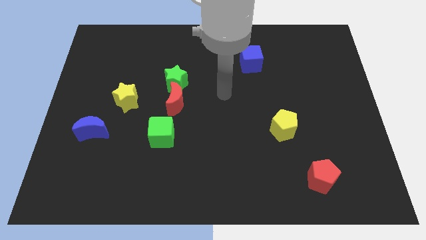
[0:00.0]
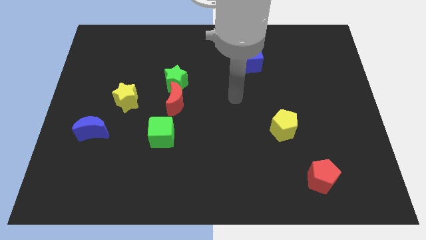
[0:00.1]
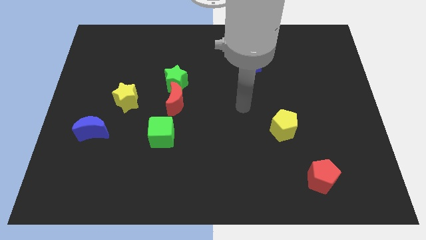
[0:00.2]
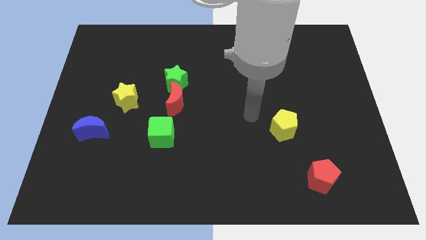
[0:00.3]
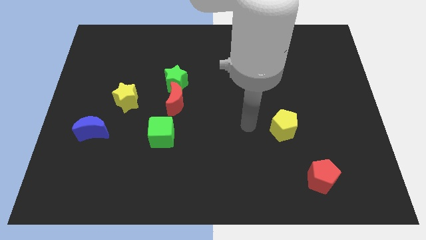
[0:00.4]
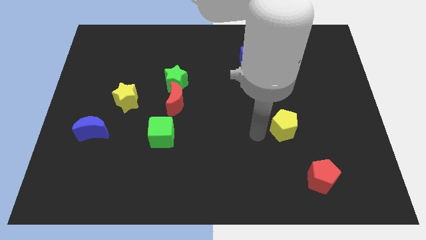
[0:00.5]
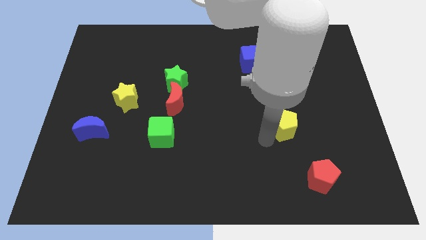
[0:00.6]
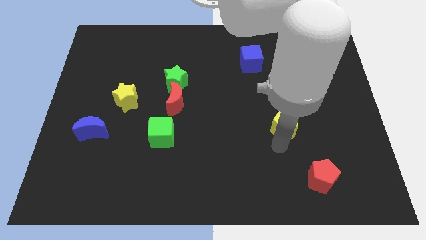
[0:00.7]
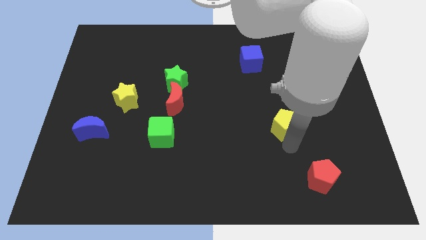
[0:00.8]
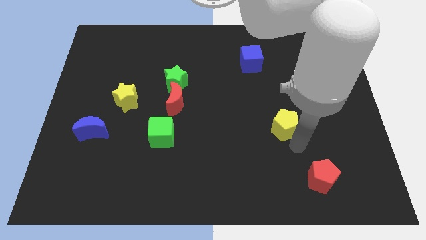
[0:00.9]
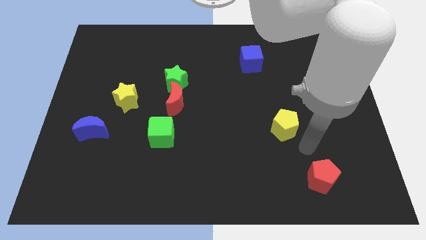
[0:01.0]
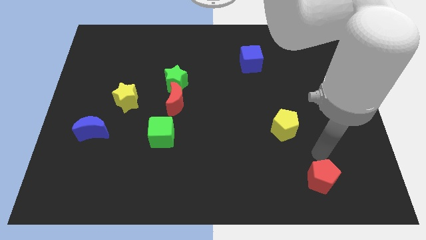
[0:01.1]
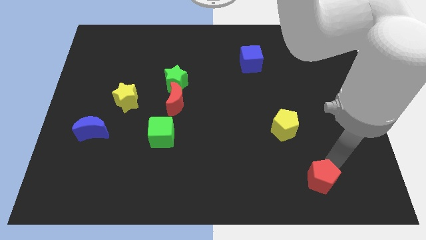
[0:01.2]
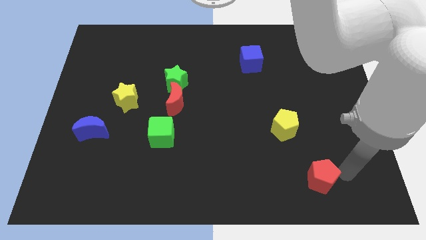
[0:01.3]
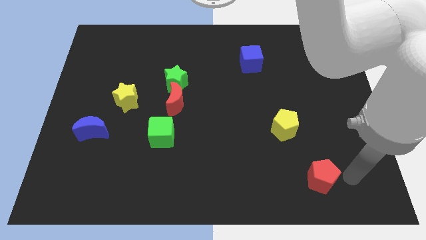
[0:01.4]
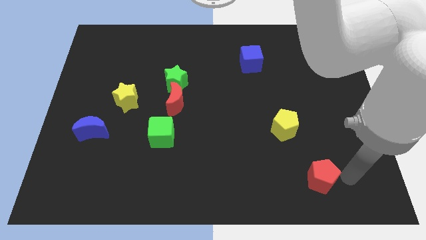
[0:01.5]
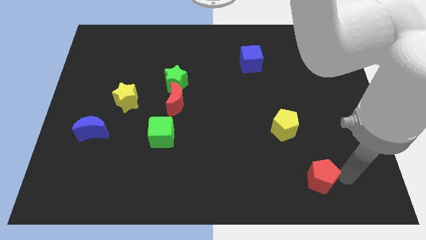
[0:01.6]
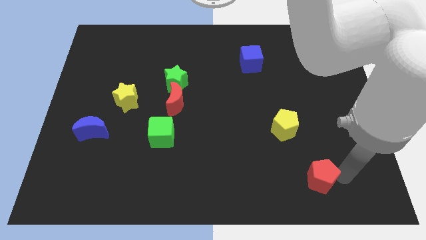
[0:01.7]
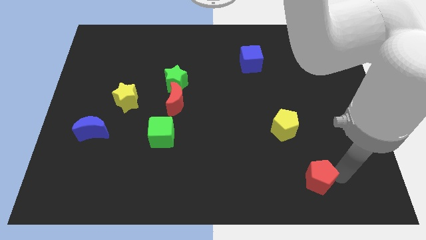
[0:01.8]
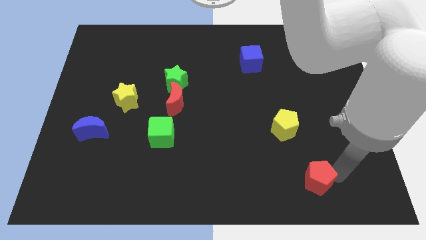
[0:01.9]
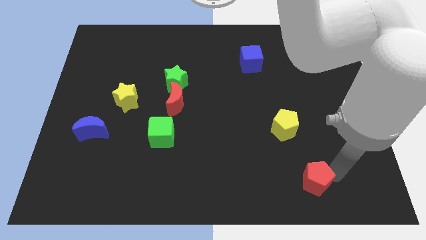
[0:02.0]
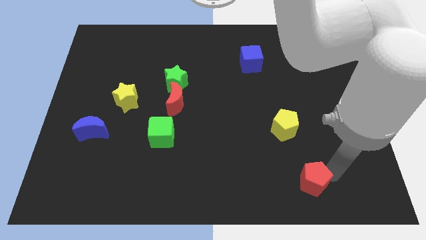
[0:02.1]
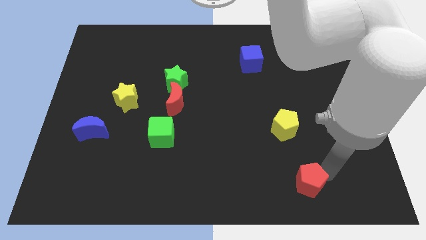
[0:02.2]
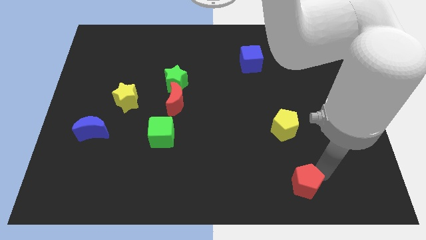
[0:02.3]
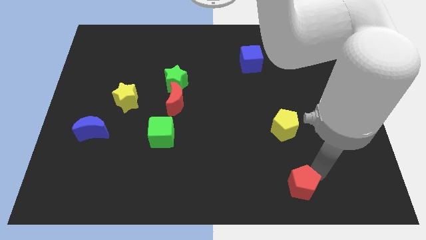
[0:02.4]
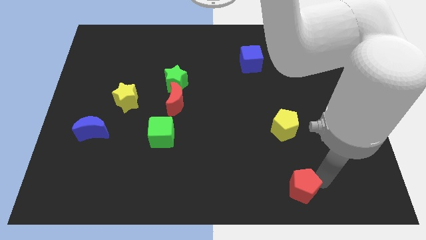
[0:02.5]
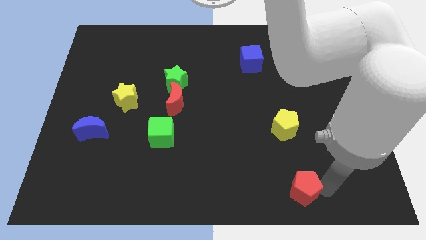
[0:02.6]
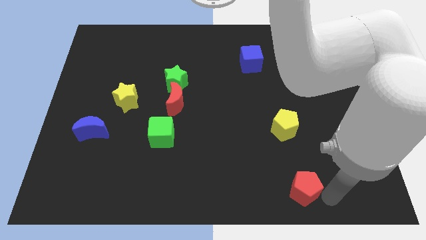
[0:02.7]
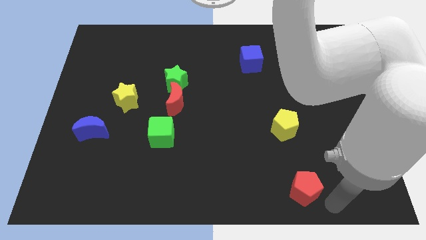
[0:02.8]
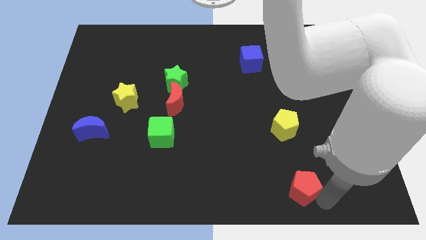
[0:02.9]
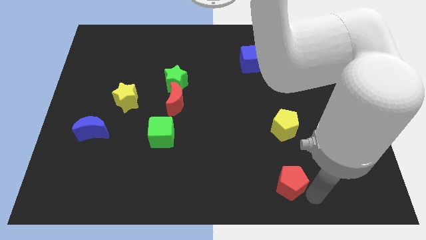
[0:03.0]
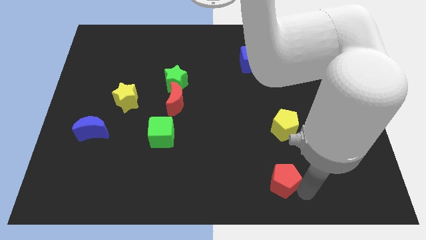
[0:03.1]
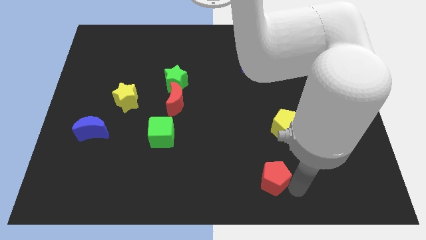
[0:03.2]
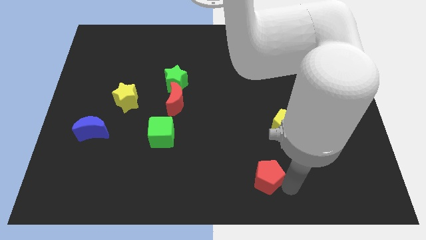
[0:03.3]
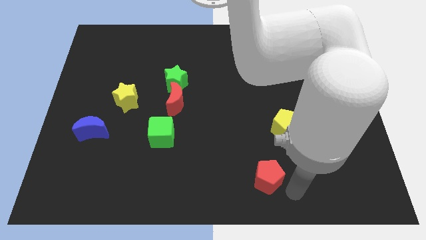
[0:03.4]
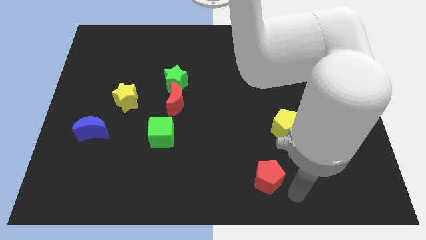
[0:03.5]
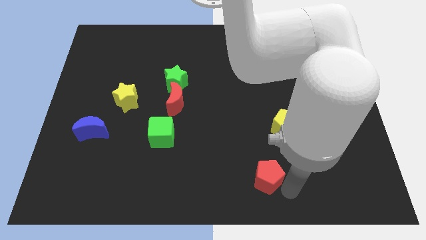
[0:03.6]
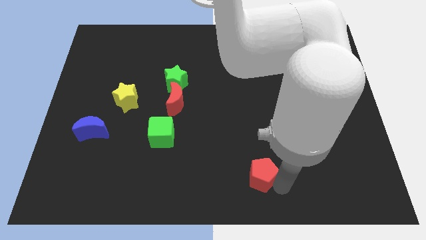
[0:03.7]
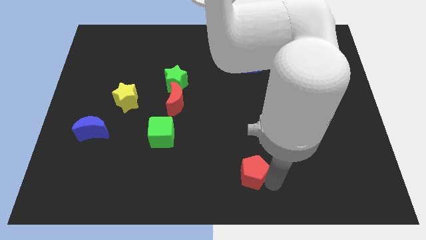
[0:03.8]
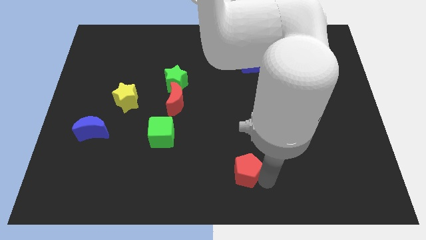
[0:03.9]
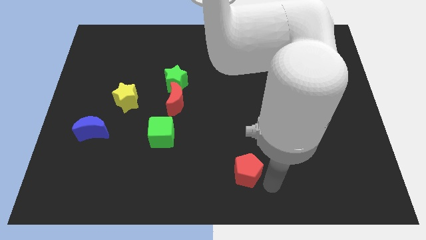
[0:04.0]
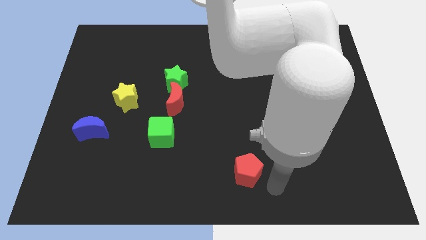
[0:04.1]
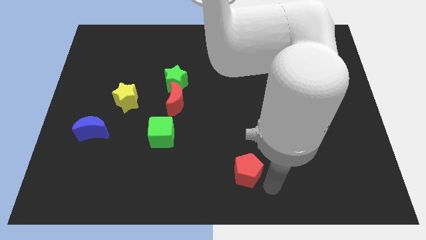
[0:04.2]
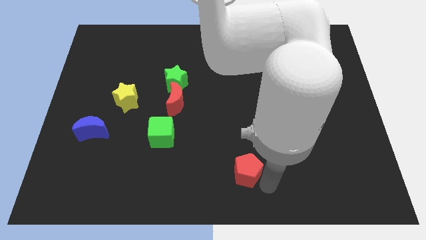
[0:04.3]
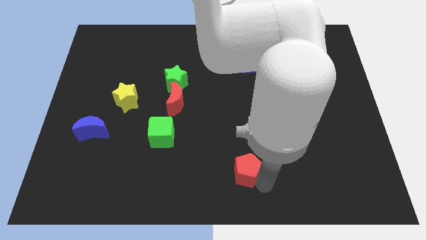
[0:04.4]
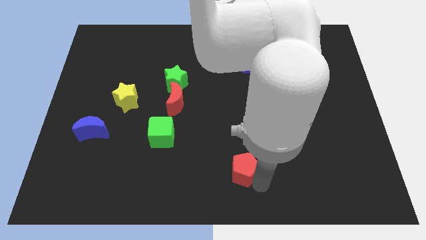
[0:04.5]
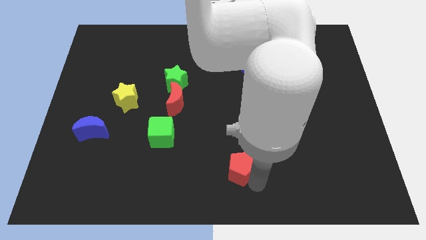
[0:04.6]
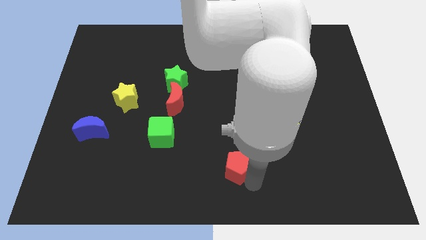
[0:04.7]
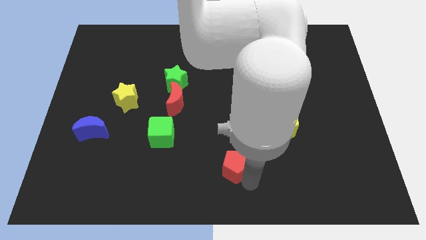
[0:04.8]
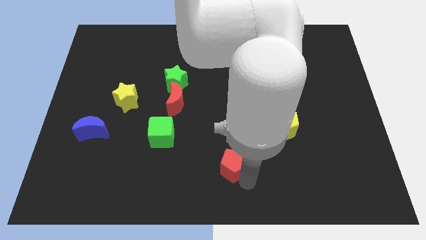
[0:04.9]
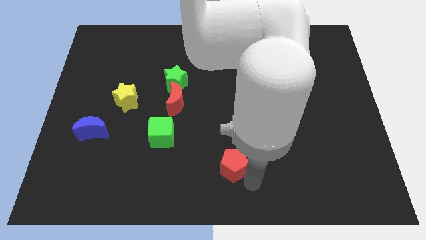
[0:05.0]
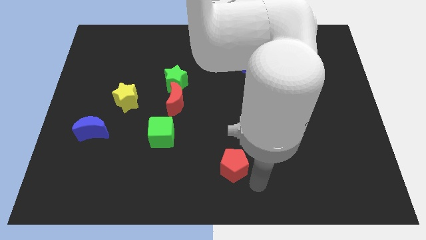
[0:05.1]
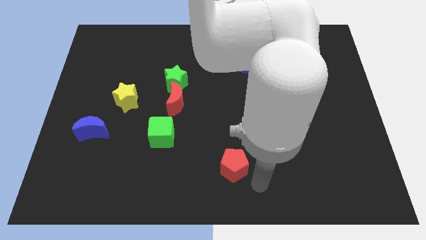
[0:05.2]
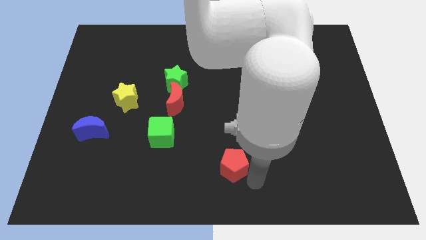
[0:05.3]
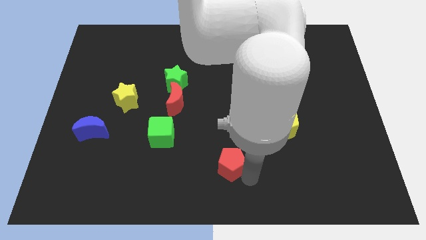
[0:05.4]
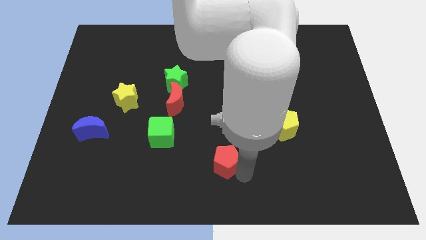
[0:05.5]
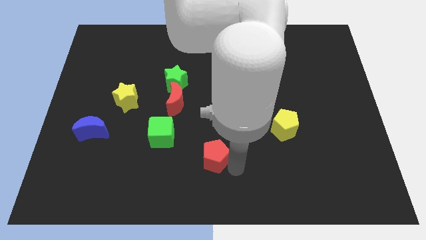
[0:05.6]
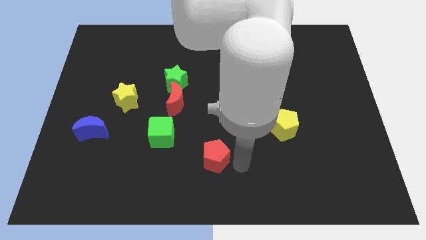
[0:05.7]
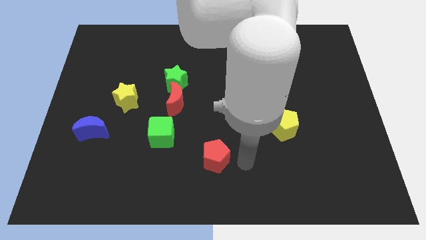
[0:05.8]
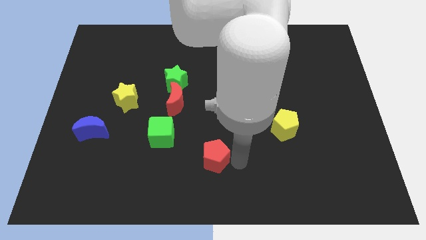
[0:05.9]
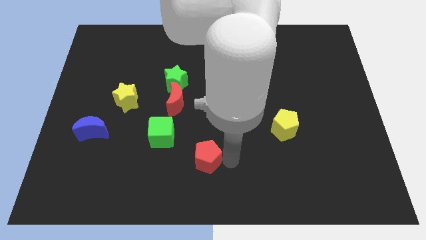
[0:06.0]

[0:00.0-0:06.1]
move the red pentagon to the bottom right side of the green cube

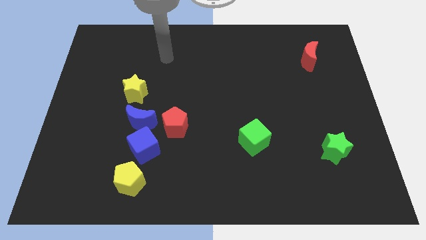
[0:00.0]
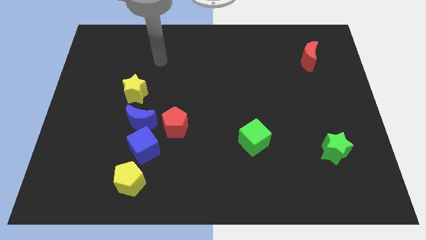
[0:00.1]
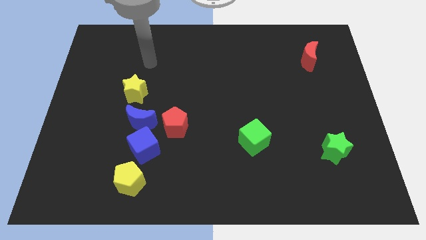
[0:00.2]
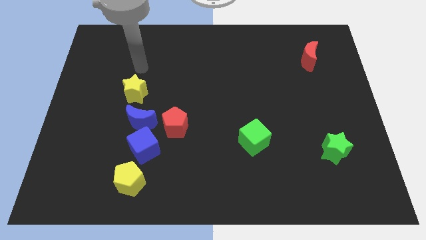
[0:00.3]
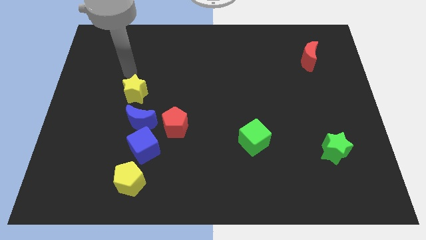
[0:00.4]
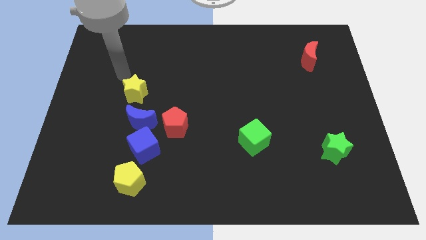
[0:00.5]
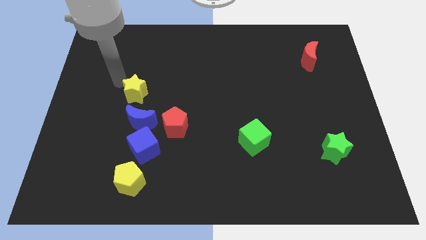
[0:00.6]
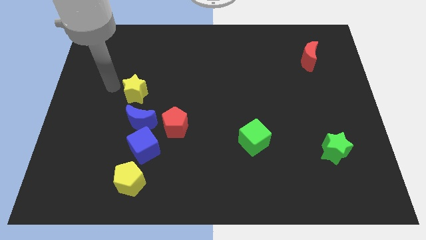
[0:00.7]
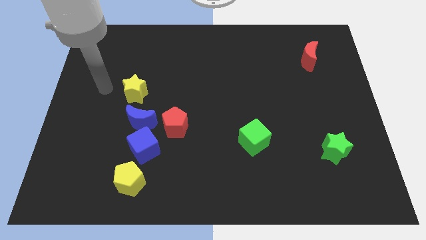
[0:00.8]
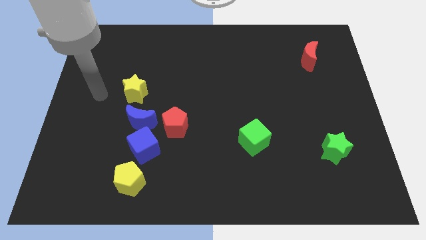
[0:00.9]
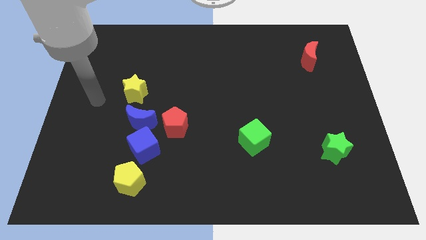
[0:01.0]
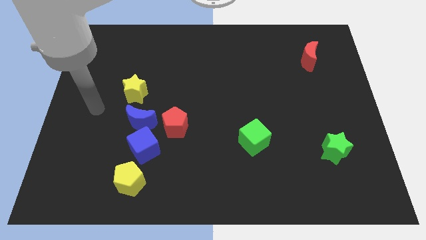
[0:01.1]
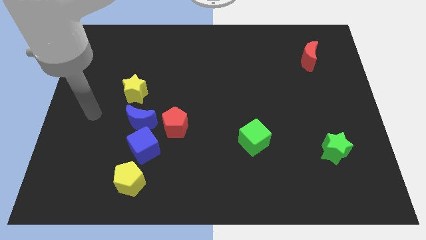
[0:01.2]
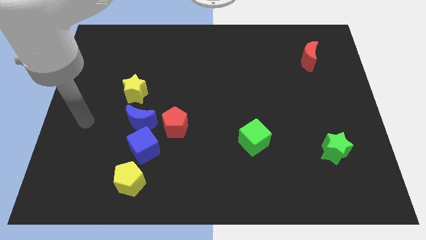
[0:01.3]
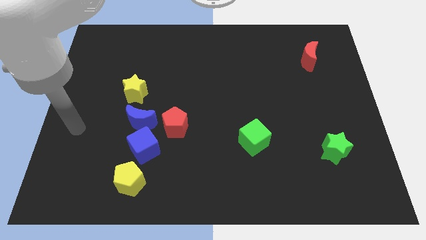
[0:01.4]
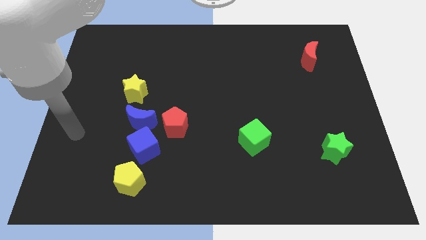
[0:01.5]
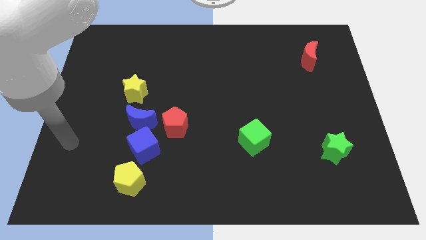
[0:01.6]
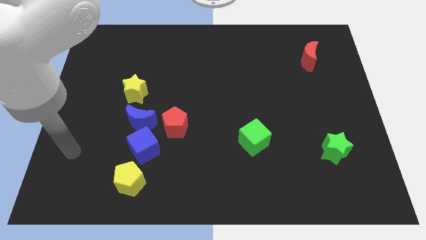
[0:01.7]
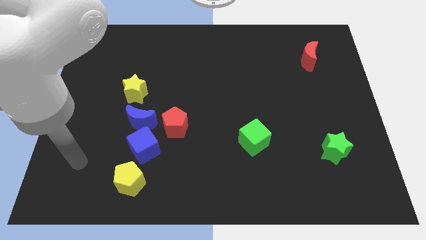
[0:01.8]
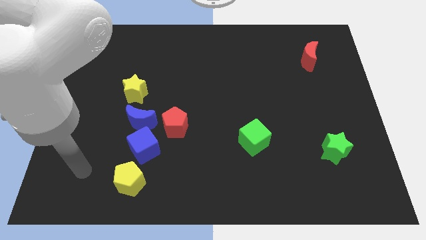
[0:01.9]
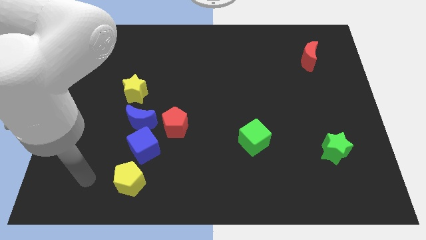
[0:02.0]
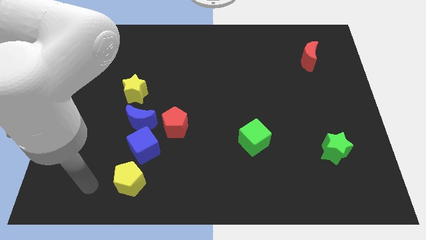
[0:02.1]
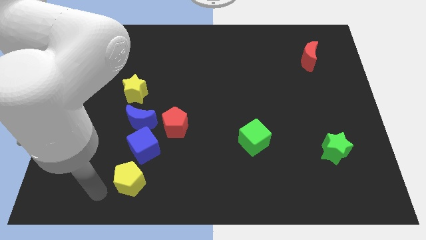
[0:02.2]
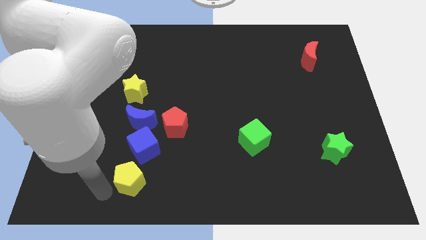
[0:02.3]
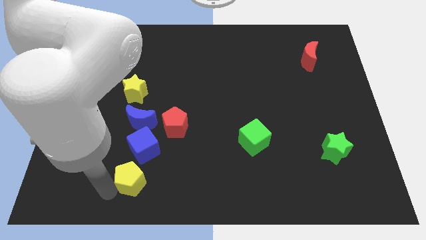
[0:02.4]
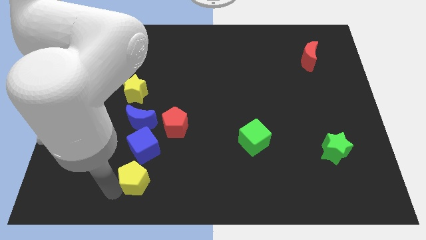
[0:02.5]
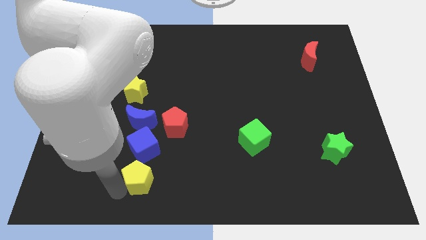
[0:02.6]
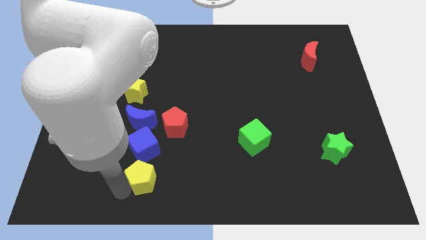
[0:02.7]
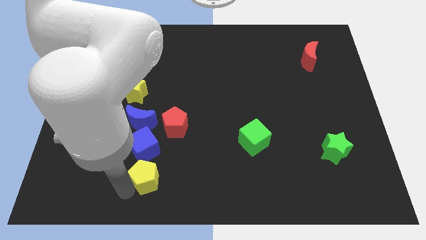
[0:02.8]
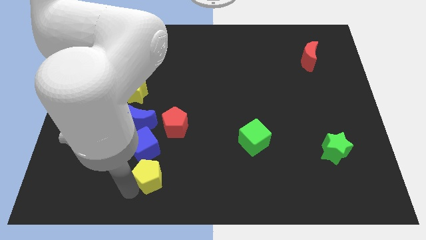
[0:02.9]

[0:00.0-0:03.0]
move the yellow pentagon to the bottom of the red pentagon
